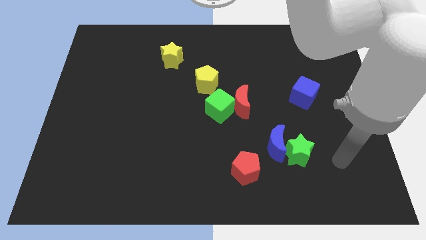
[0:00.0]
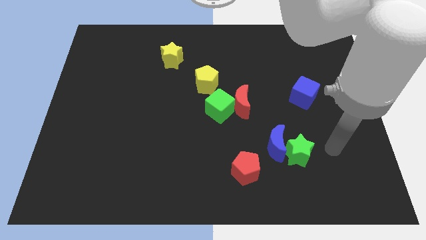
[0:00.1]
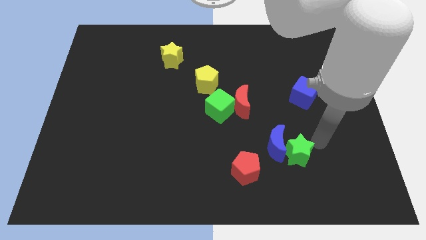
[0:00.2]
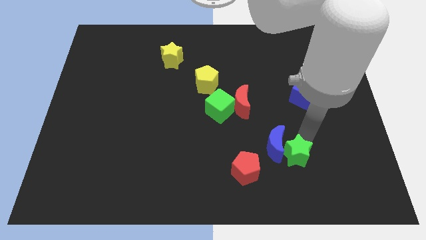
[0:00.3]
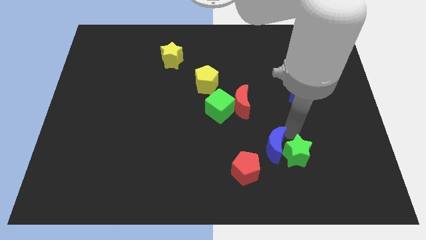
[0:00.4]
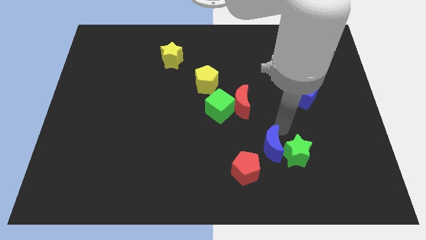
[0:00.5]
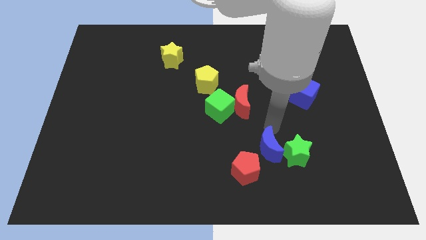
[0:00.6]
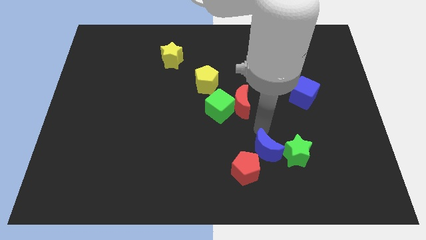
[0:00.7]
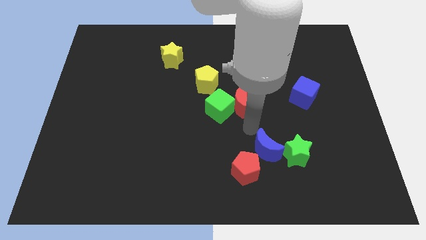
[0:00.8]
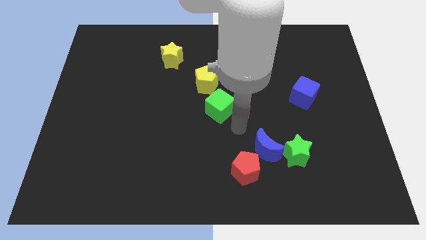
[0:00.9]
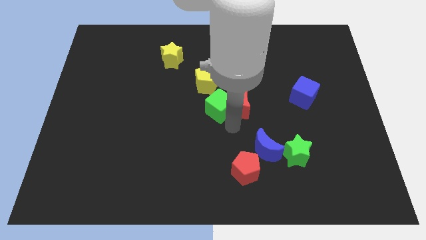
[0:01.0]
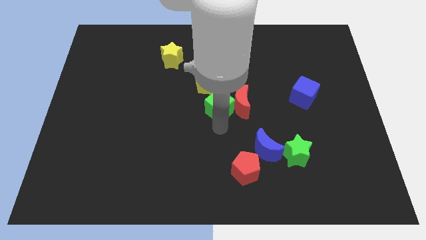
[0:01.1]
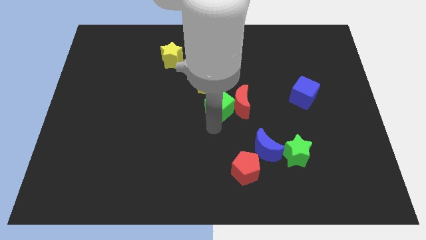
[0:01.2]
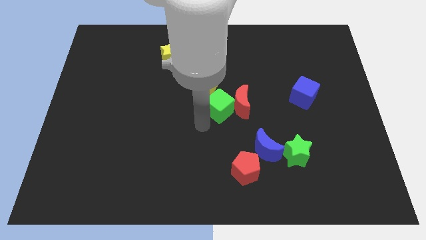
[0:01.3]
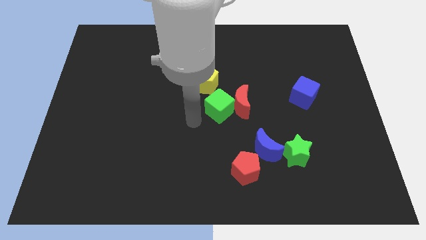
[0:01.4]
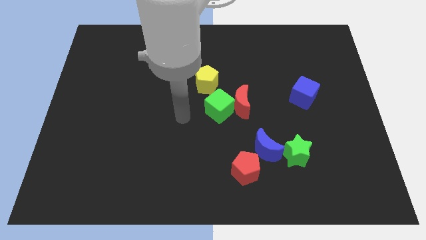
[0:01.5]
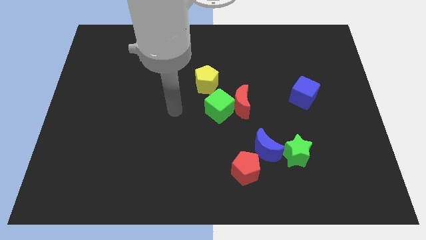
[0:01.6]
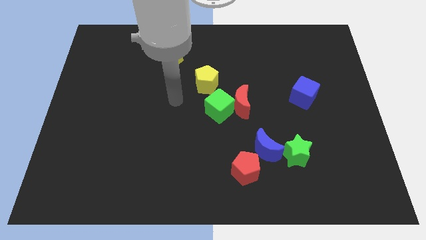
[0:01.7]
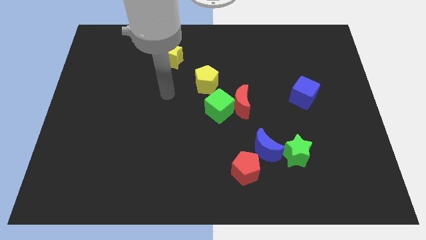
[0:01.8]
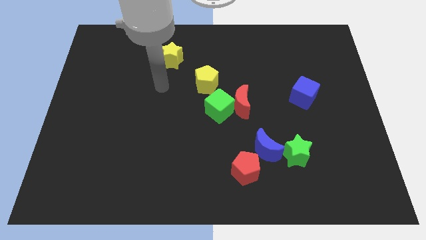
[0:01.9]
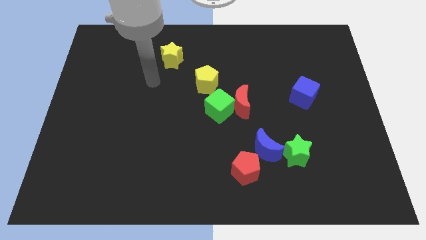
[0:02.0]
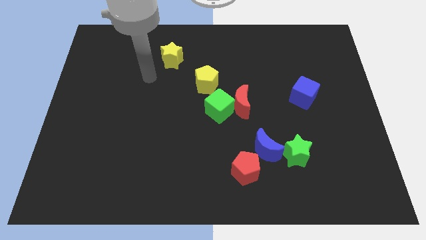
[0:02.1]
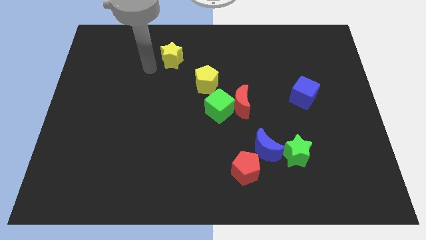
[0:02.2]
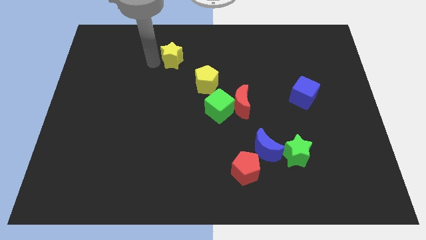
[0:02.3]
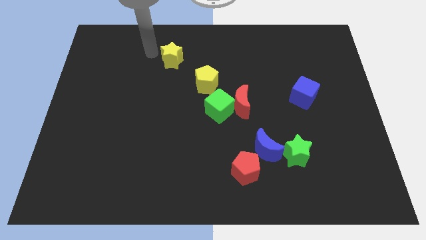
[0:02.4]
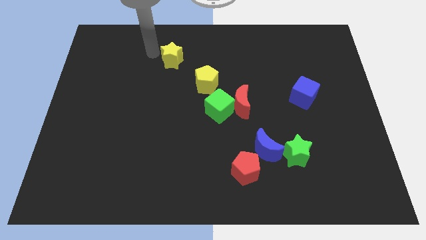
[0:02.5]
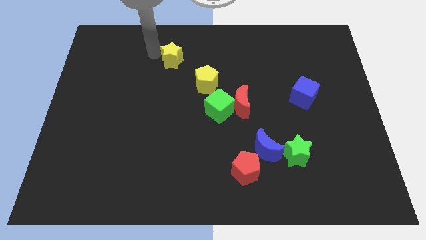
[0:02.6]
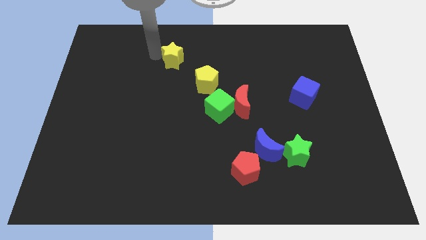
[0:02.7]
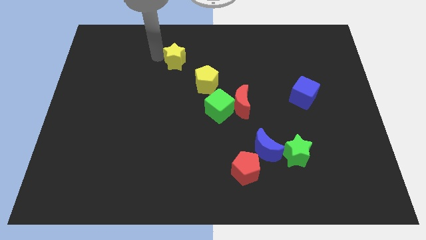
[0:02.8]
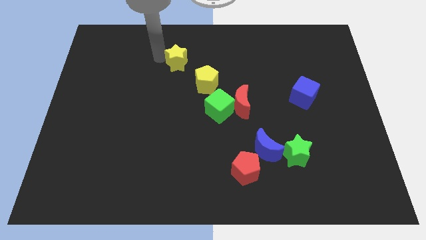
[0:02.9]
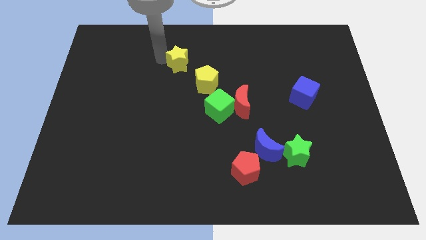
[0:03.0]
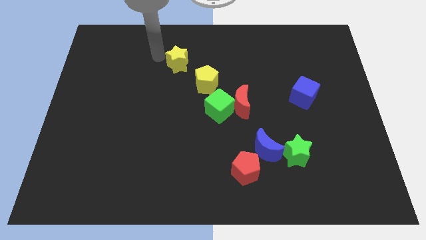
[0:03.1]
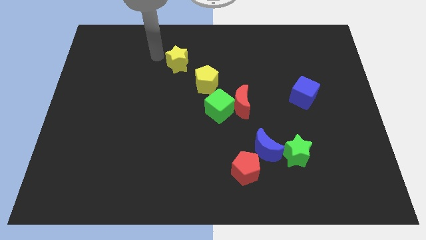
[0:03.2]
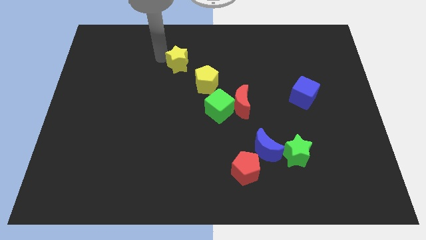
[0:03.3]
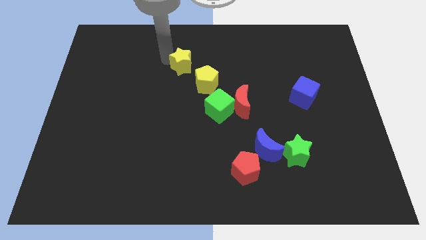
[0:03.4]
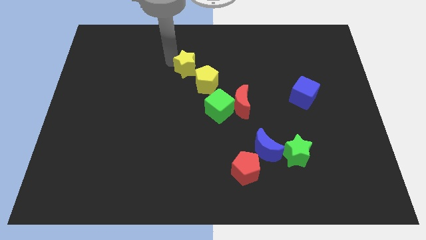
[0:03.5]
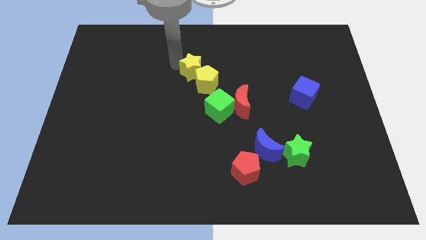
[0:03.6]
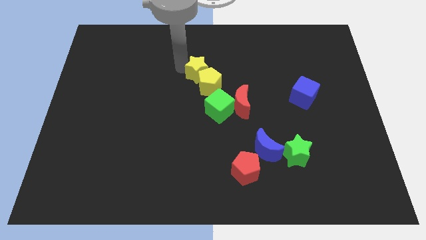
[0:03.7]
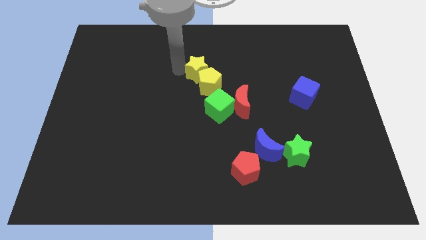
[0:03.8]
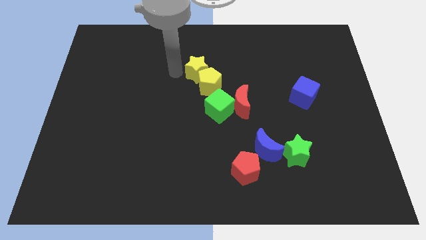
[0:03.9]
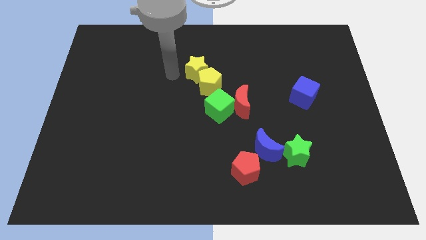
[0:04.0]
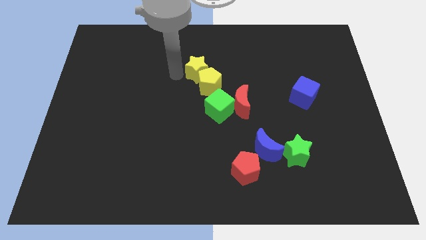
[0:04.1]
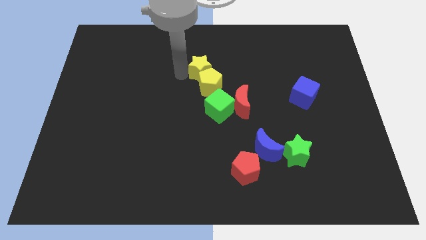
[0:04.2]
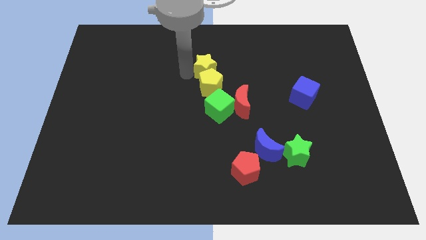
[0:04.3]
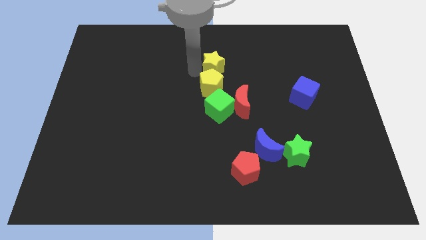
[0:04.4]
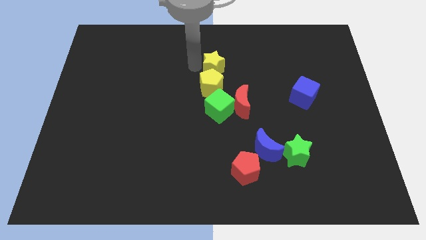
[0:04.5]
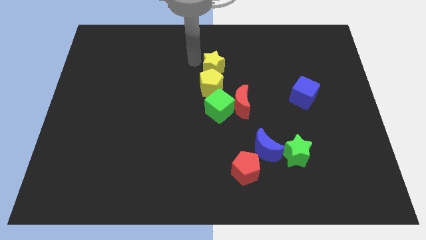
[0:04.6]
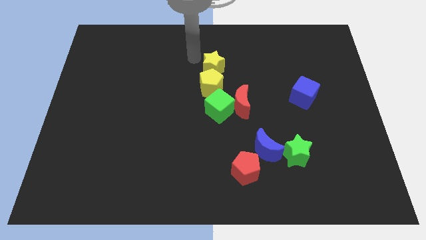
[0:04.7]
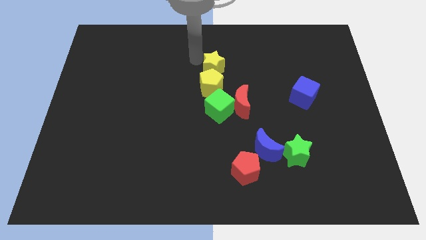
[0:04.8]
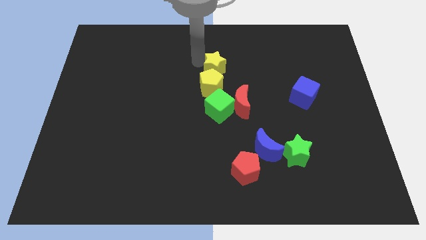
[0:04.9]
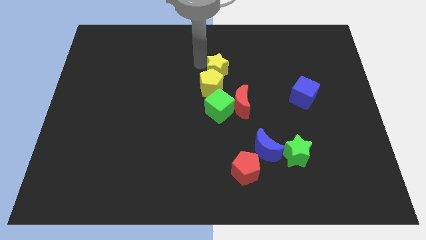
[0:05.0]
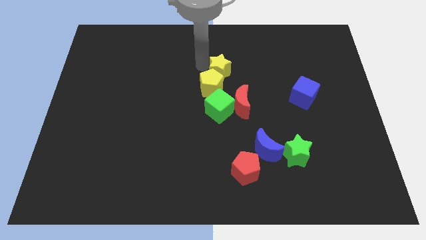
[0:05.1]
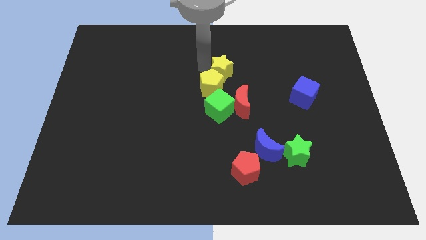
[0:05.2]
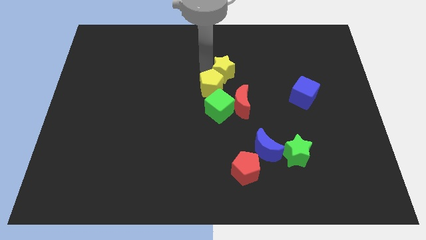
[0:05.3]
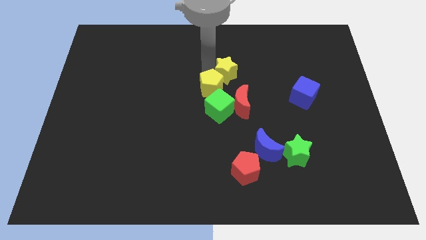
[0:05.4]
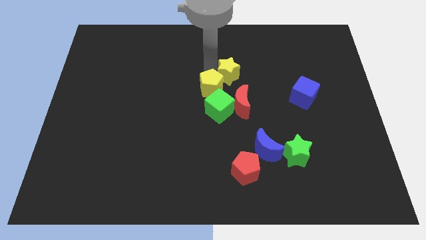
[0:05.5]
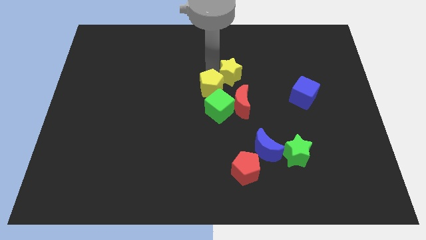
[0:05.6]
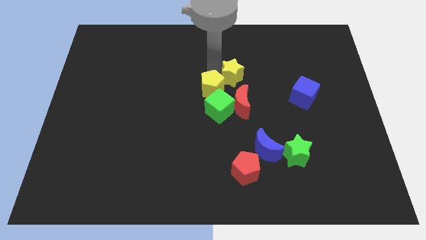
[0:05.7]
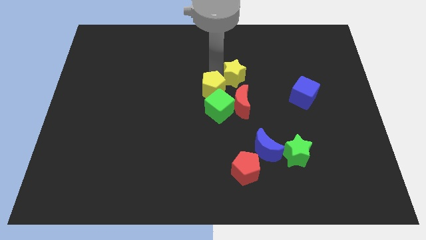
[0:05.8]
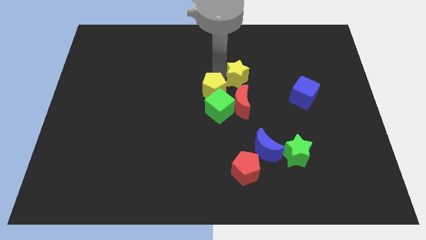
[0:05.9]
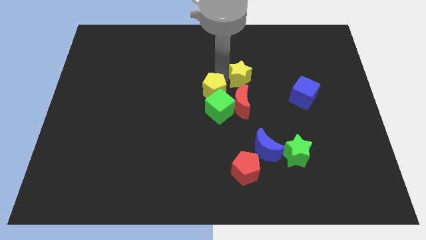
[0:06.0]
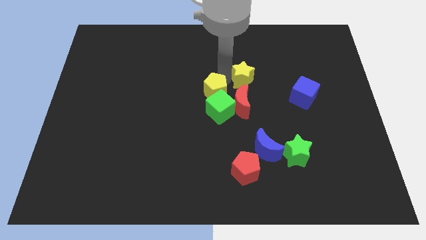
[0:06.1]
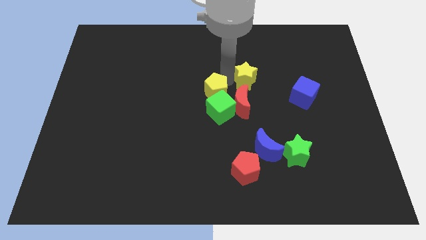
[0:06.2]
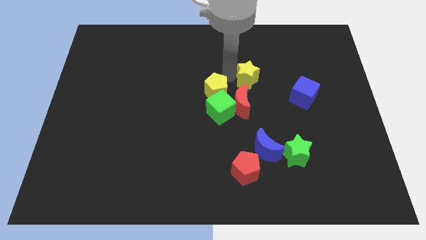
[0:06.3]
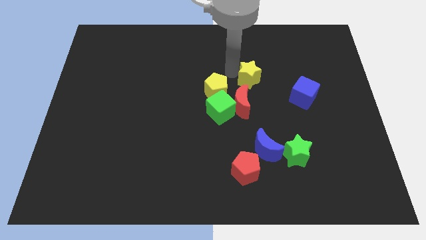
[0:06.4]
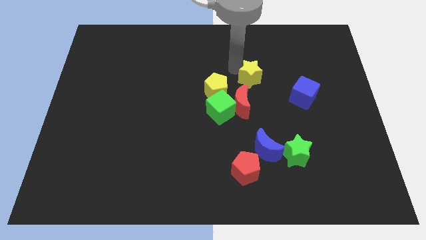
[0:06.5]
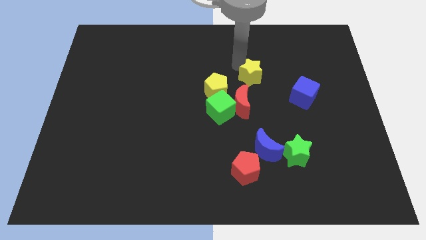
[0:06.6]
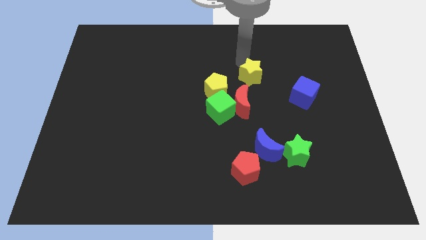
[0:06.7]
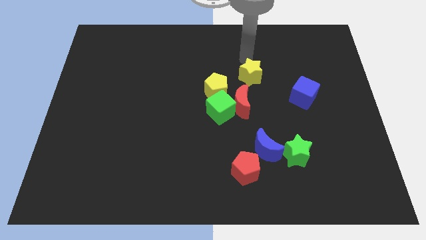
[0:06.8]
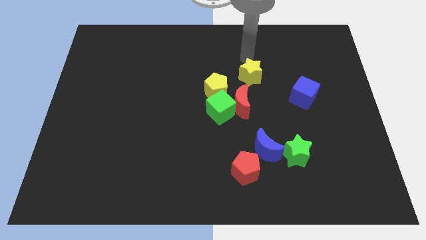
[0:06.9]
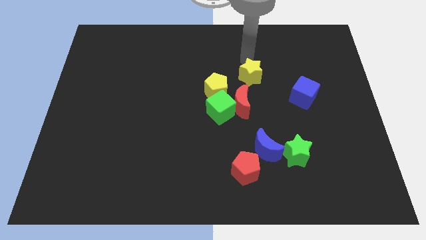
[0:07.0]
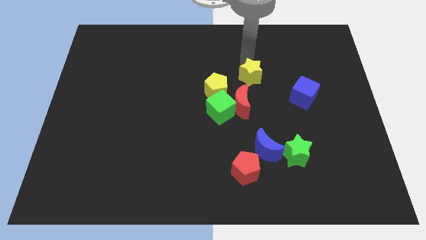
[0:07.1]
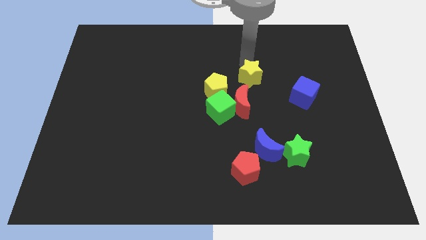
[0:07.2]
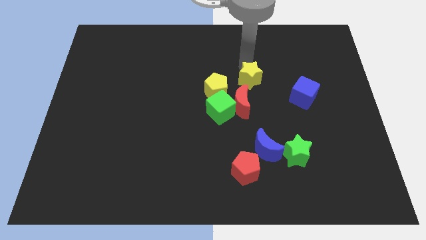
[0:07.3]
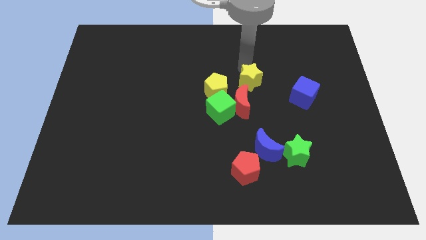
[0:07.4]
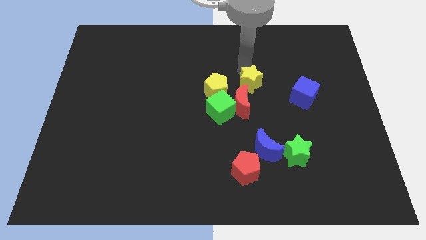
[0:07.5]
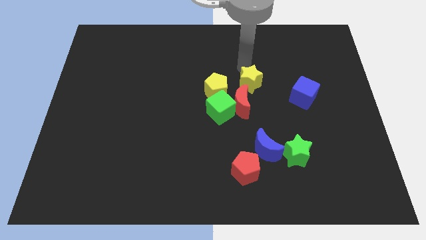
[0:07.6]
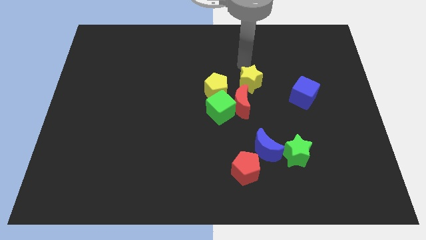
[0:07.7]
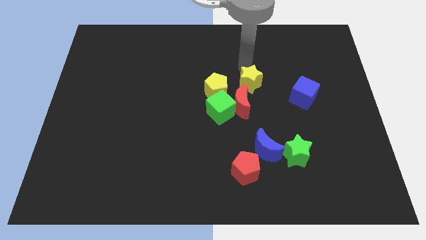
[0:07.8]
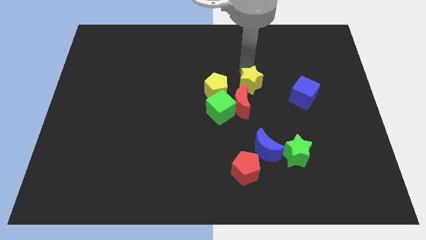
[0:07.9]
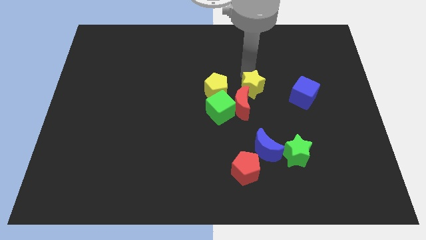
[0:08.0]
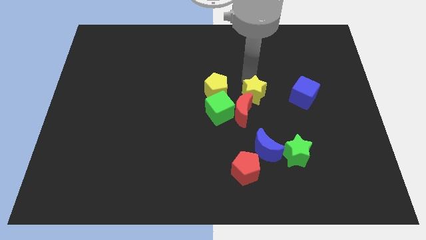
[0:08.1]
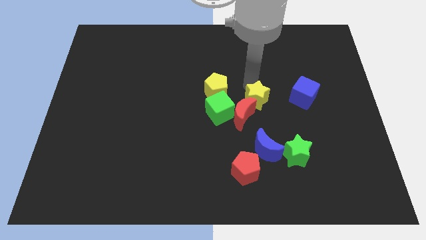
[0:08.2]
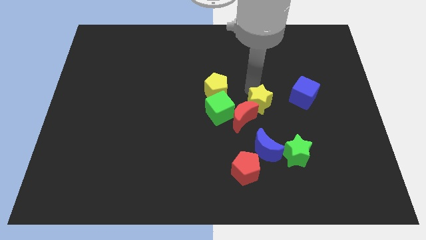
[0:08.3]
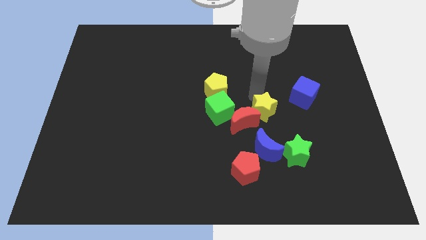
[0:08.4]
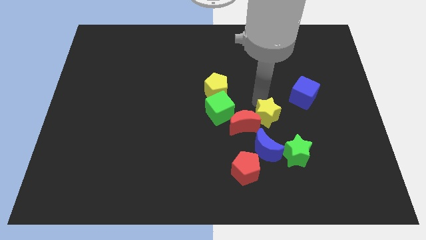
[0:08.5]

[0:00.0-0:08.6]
slide the yellow star to the top left side of the green star
